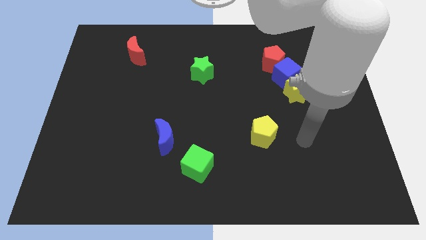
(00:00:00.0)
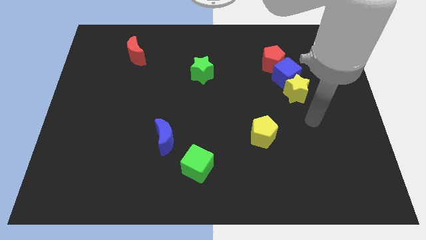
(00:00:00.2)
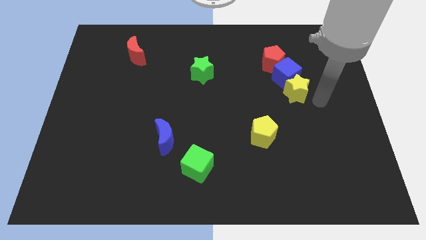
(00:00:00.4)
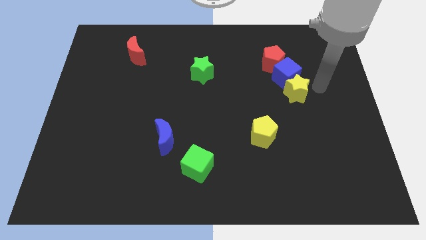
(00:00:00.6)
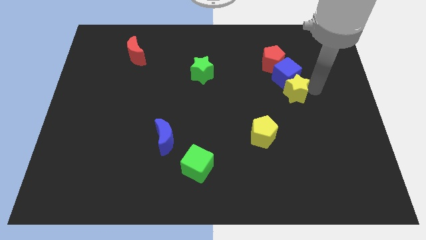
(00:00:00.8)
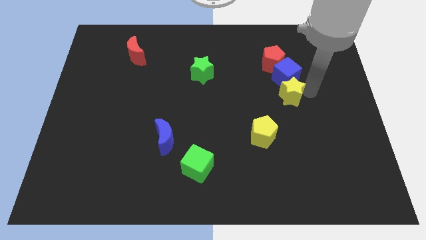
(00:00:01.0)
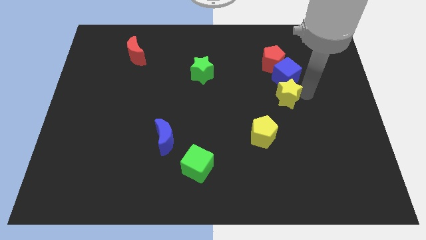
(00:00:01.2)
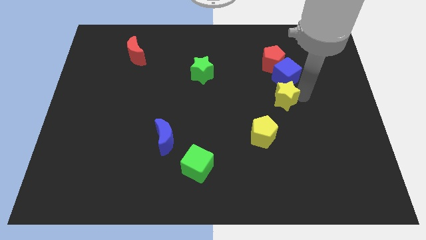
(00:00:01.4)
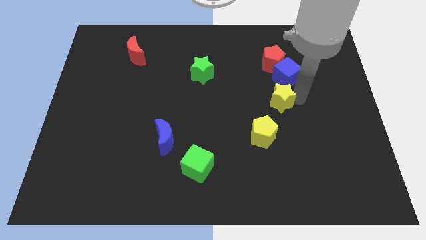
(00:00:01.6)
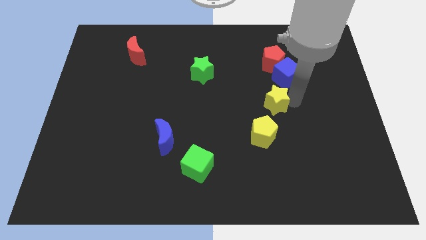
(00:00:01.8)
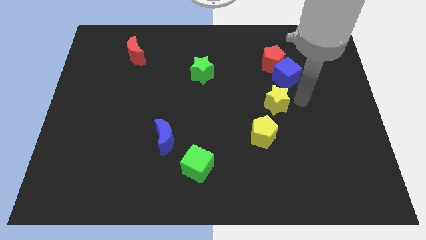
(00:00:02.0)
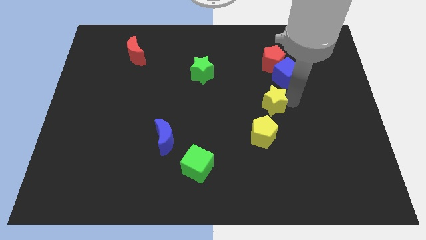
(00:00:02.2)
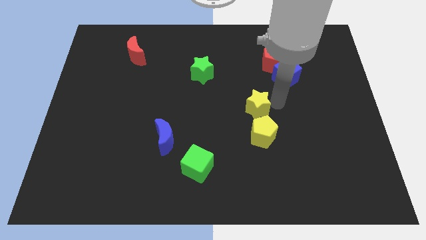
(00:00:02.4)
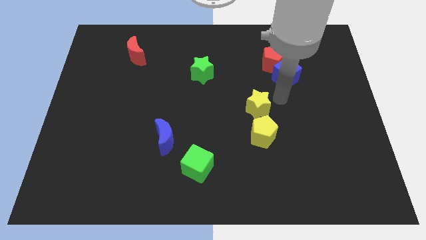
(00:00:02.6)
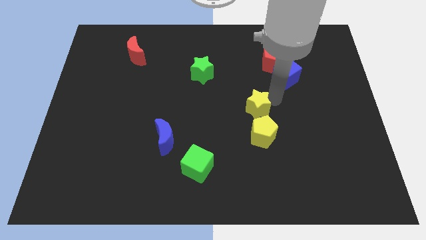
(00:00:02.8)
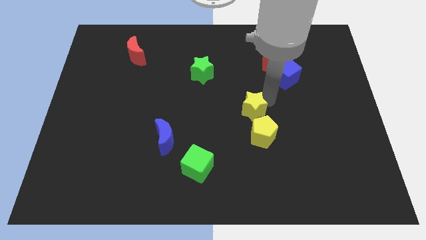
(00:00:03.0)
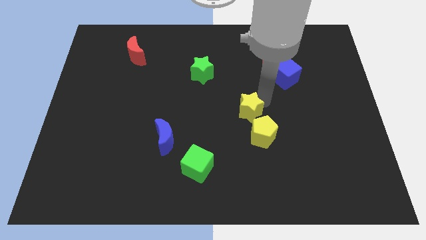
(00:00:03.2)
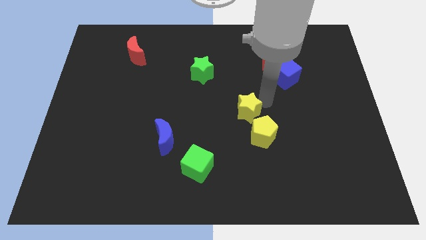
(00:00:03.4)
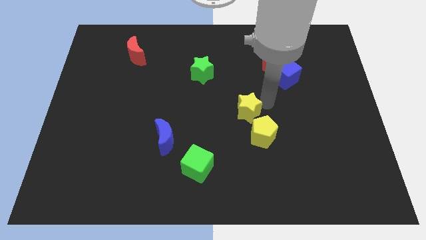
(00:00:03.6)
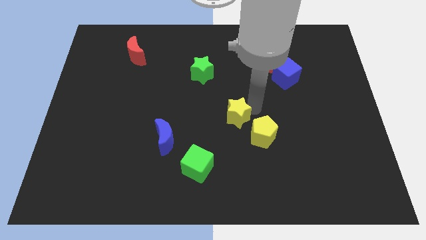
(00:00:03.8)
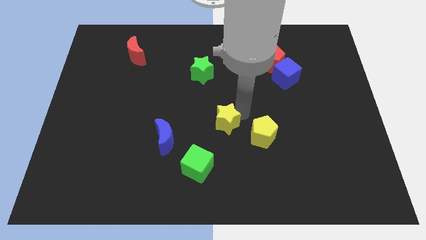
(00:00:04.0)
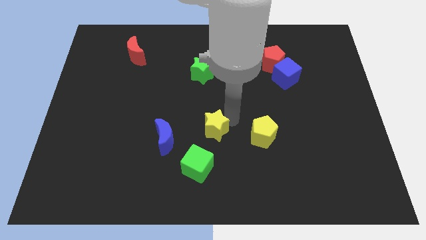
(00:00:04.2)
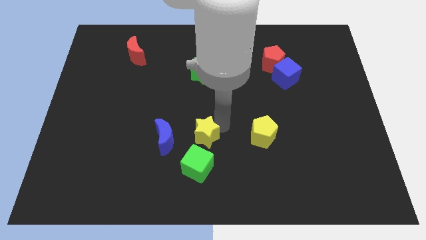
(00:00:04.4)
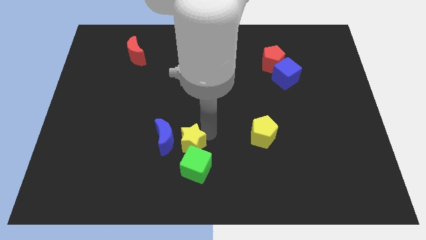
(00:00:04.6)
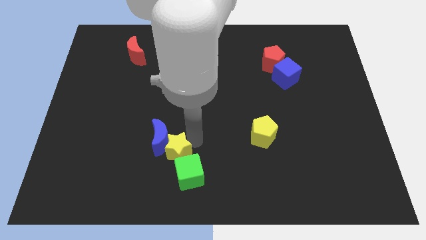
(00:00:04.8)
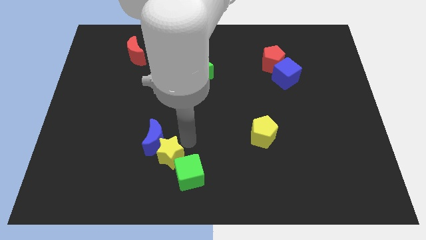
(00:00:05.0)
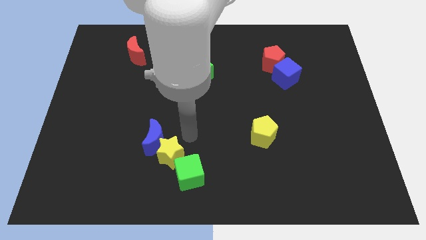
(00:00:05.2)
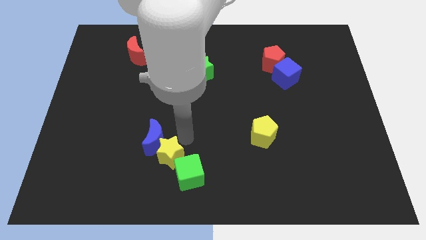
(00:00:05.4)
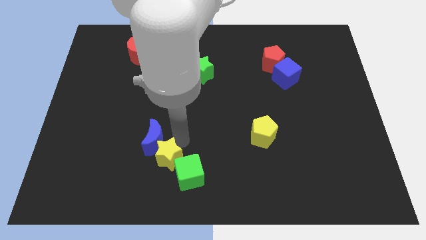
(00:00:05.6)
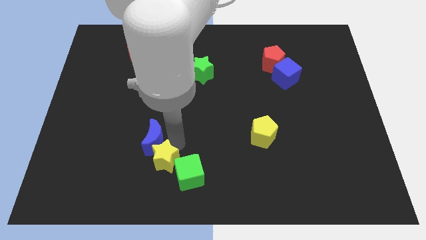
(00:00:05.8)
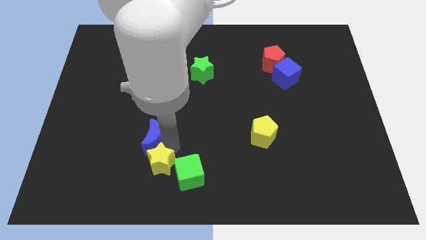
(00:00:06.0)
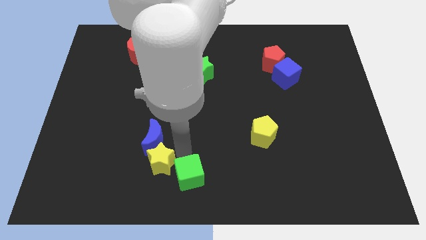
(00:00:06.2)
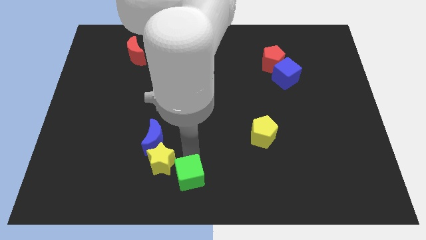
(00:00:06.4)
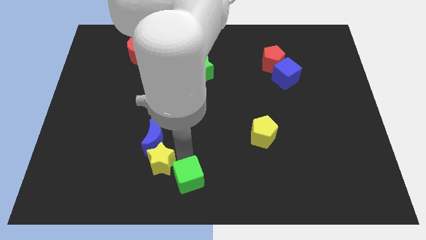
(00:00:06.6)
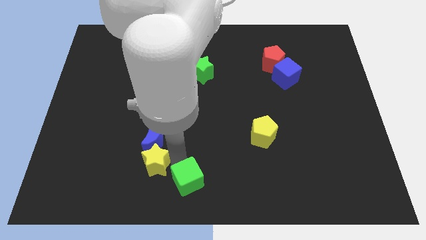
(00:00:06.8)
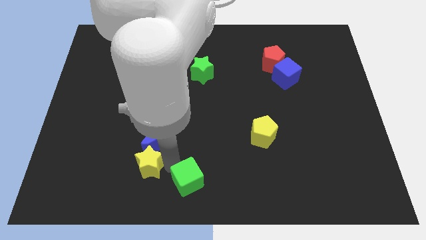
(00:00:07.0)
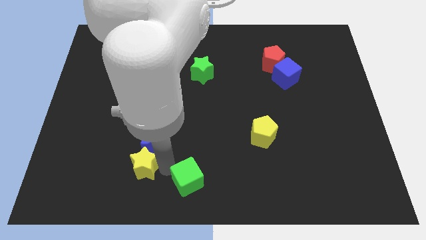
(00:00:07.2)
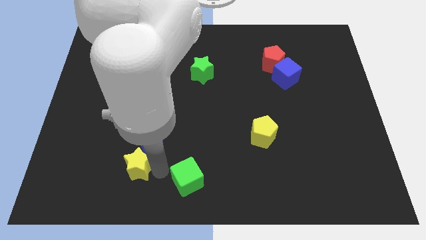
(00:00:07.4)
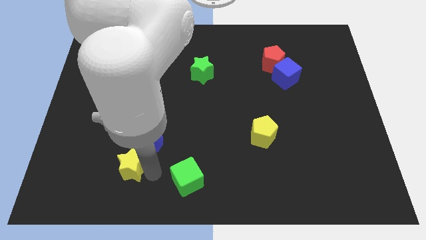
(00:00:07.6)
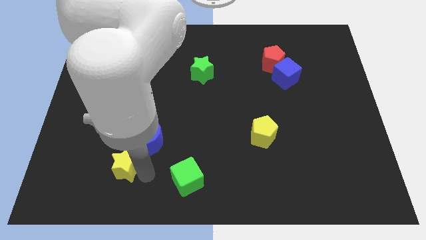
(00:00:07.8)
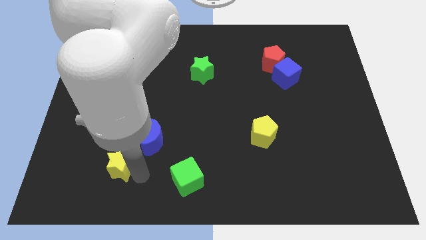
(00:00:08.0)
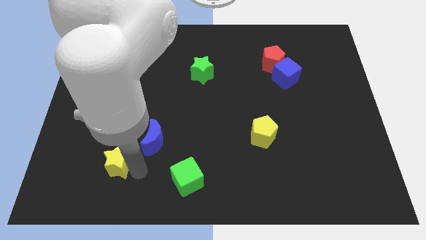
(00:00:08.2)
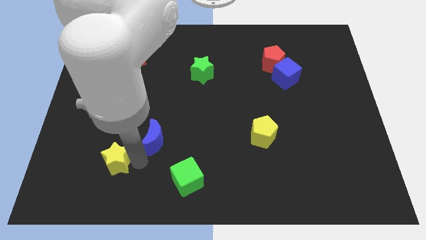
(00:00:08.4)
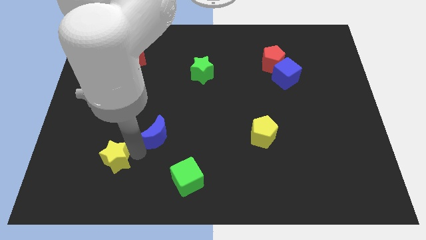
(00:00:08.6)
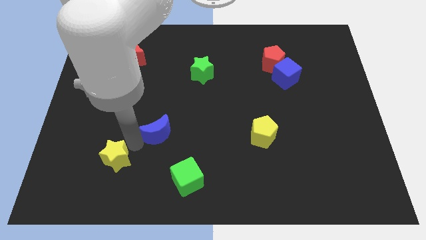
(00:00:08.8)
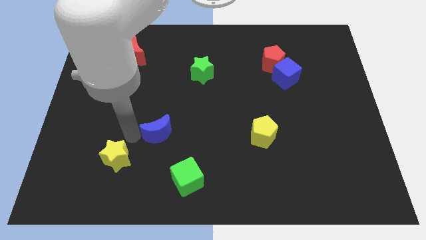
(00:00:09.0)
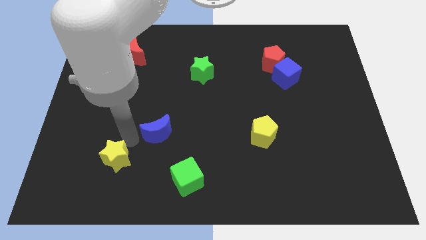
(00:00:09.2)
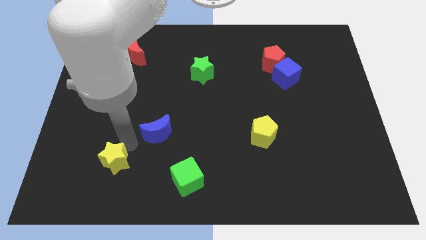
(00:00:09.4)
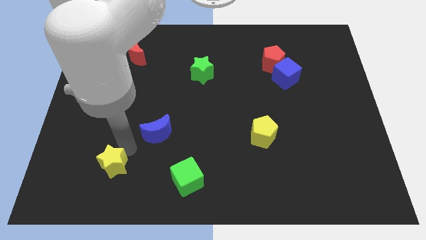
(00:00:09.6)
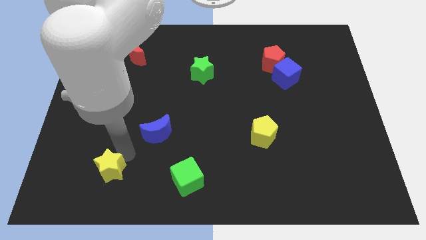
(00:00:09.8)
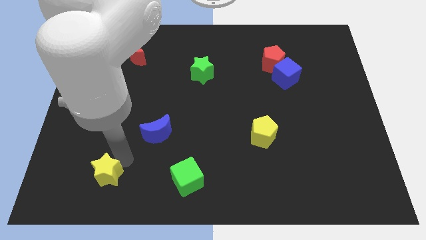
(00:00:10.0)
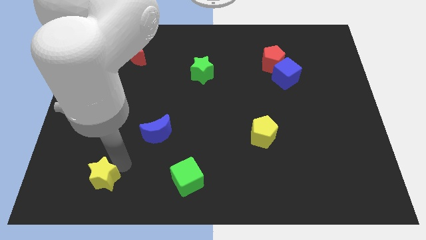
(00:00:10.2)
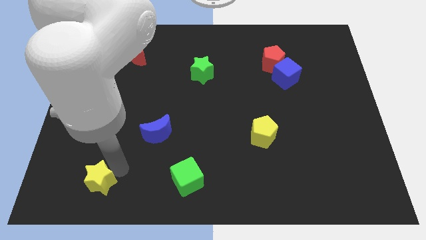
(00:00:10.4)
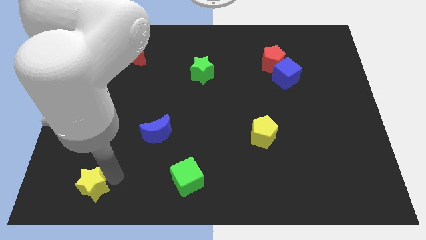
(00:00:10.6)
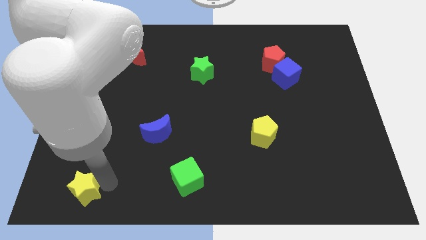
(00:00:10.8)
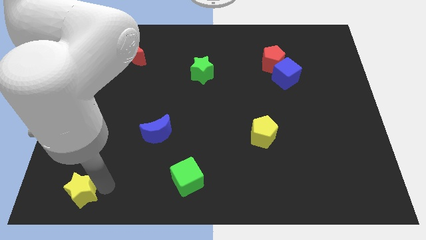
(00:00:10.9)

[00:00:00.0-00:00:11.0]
push the yellow star to the bottom left corner

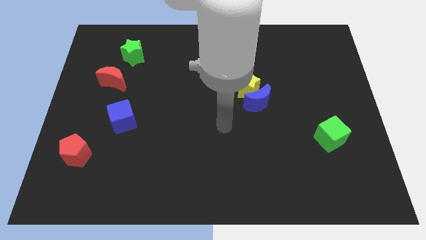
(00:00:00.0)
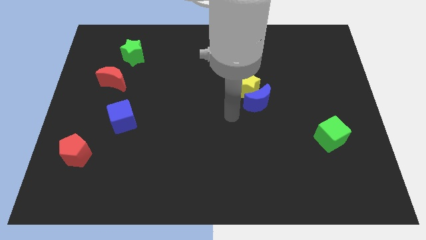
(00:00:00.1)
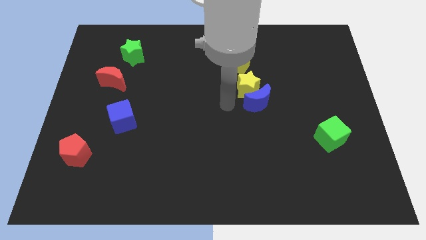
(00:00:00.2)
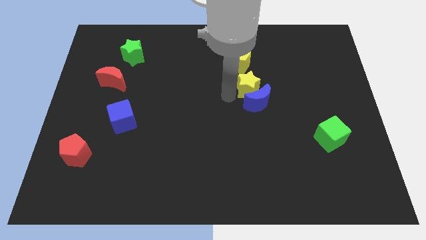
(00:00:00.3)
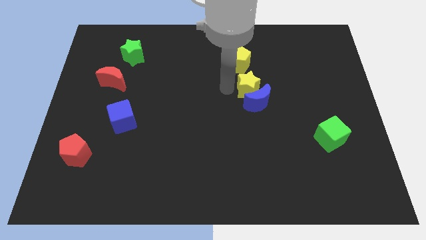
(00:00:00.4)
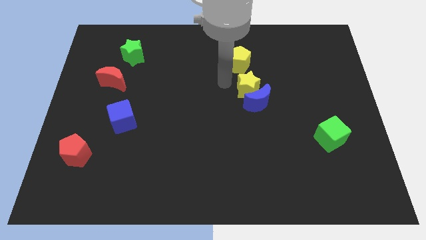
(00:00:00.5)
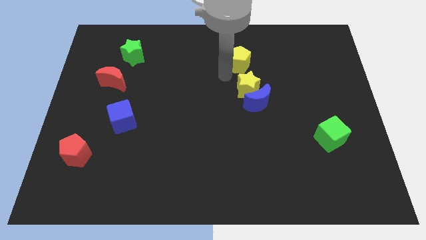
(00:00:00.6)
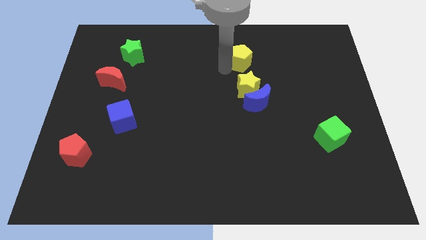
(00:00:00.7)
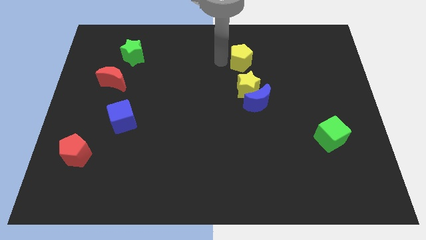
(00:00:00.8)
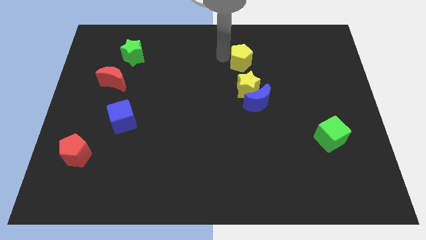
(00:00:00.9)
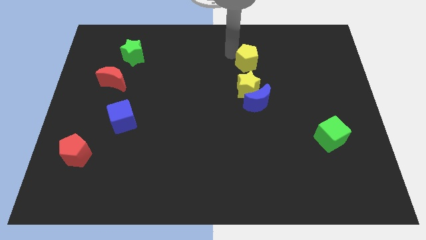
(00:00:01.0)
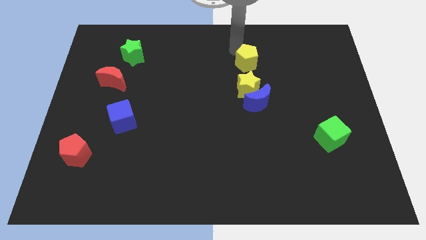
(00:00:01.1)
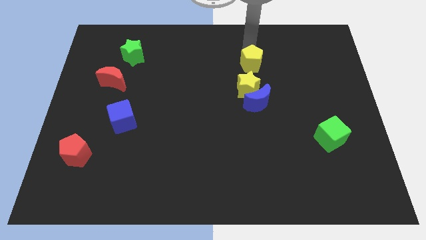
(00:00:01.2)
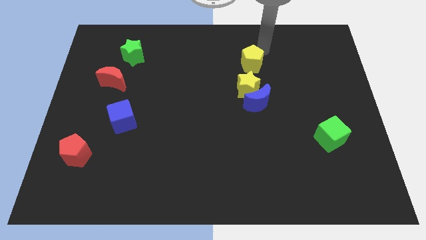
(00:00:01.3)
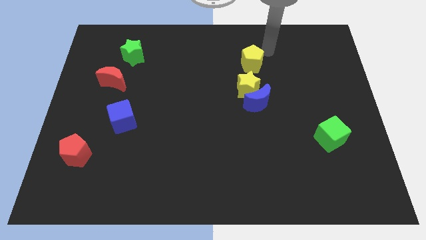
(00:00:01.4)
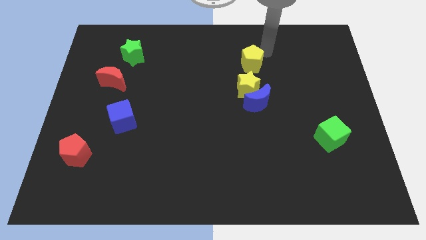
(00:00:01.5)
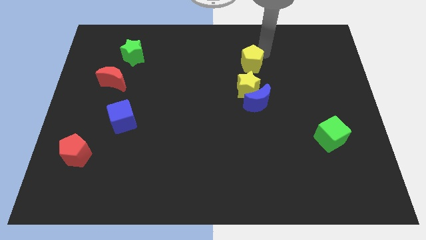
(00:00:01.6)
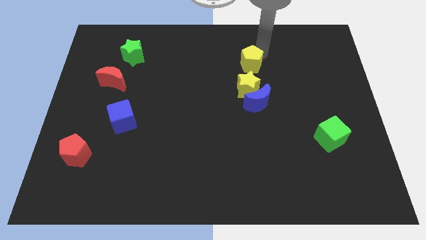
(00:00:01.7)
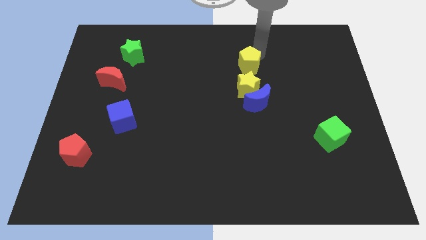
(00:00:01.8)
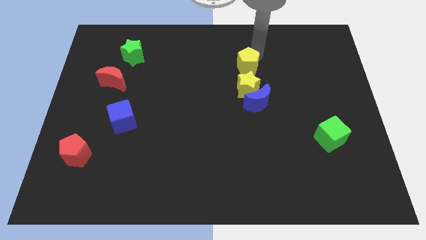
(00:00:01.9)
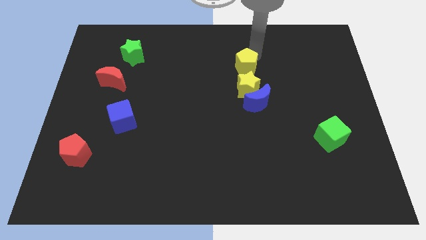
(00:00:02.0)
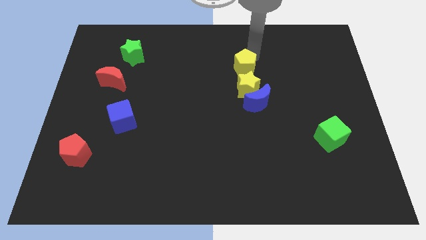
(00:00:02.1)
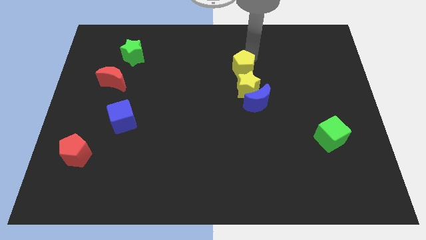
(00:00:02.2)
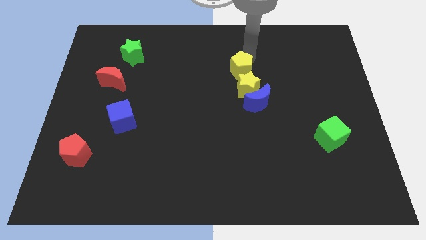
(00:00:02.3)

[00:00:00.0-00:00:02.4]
put the yellow pentagon to the center of the board
